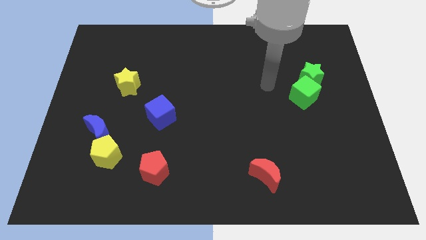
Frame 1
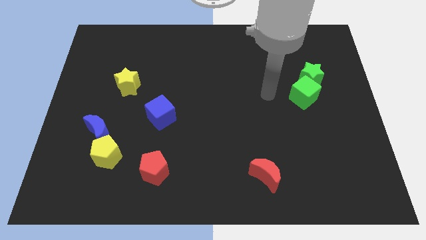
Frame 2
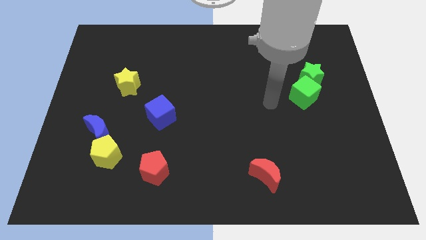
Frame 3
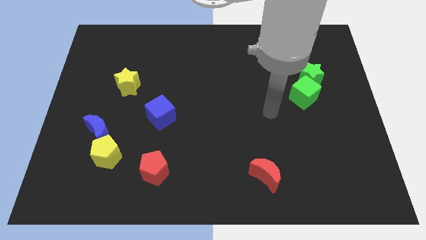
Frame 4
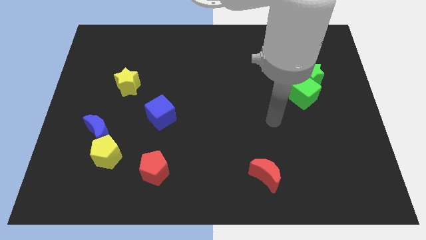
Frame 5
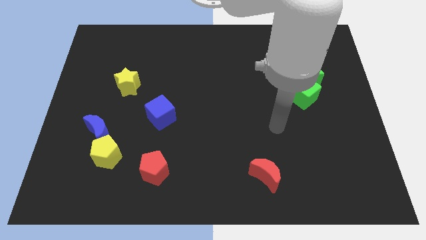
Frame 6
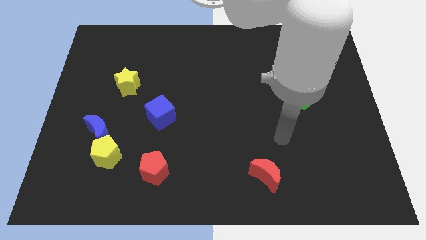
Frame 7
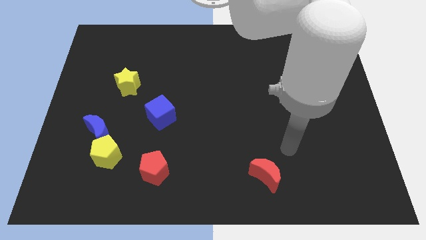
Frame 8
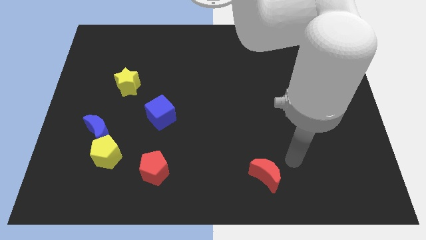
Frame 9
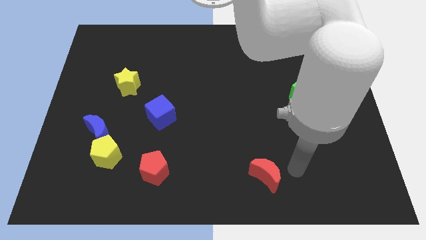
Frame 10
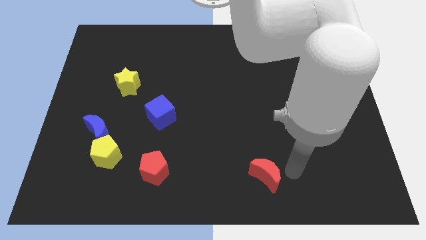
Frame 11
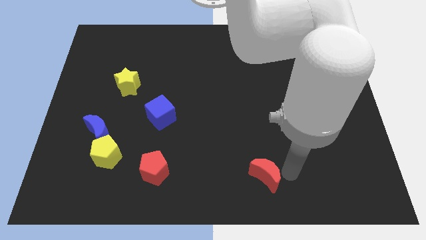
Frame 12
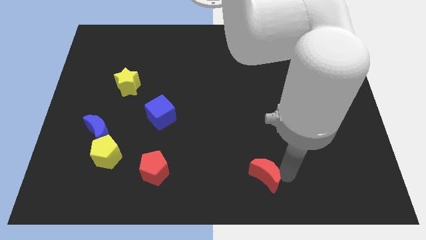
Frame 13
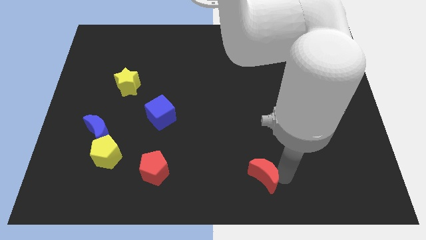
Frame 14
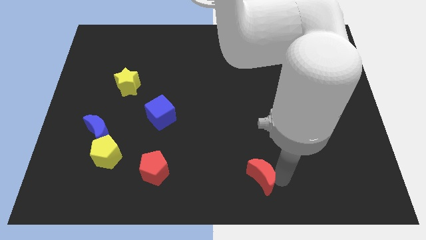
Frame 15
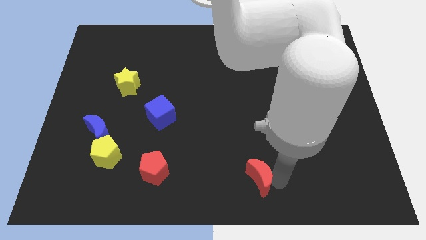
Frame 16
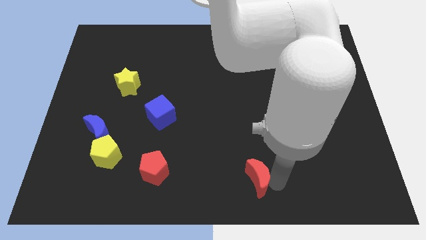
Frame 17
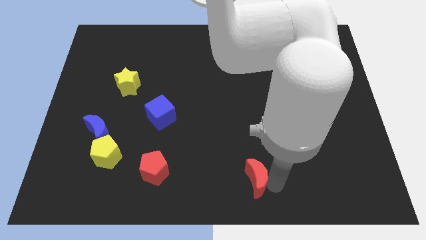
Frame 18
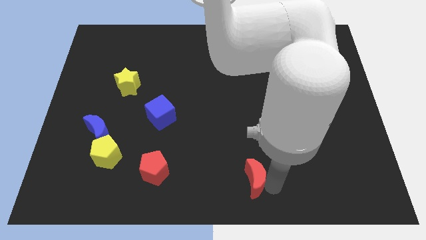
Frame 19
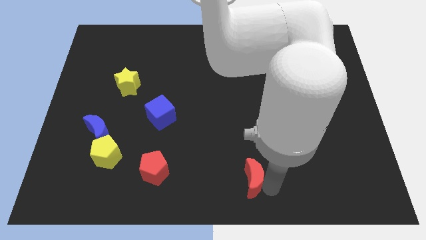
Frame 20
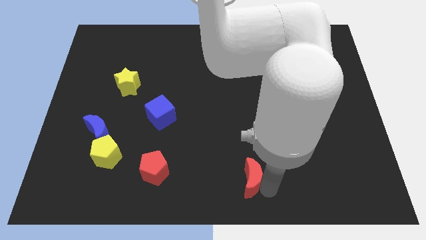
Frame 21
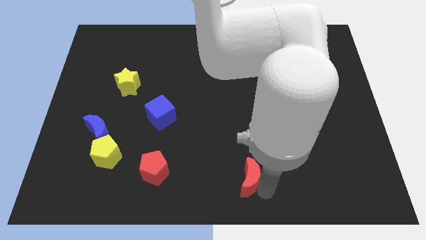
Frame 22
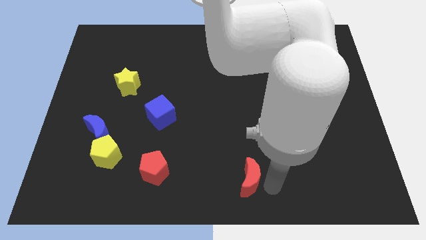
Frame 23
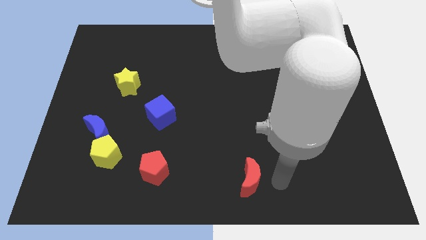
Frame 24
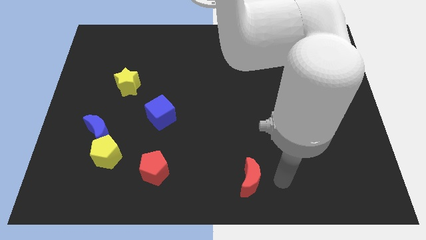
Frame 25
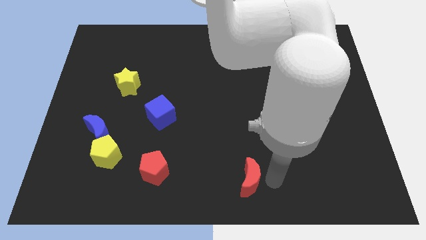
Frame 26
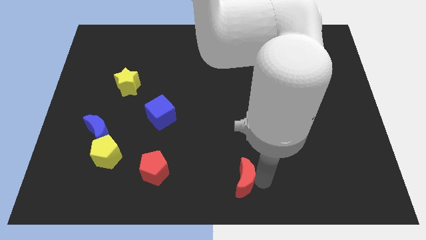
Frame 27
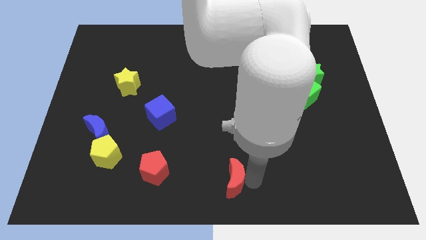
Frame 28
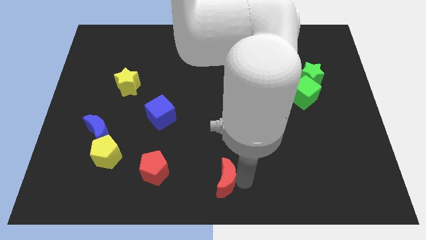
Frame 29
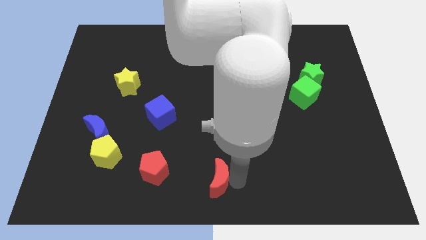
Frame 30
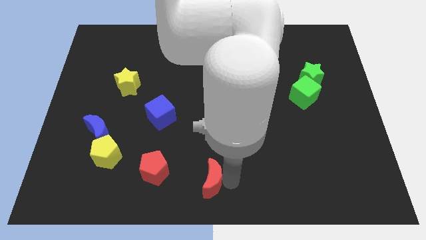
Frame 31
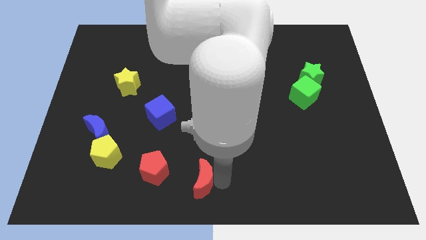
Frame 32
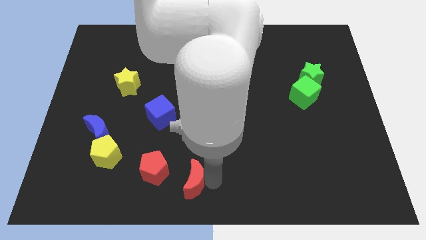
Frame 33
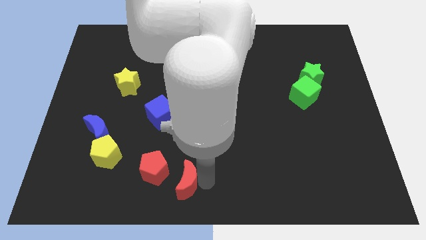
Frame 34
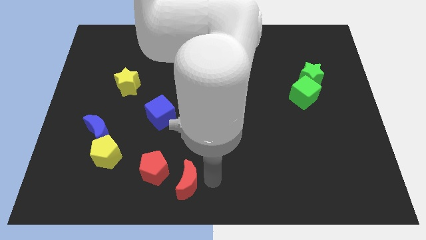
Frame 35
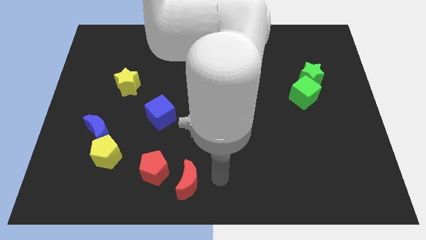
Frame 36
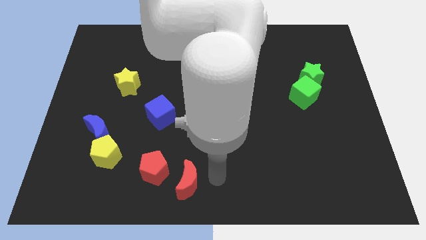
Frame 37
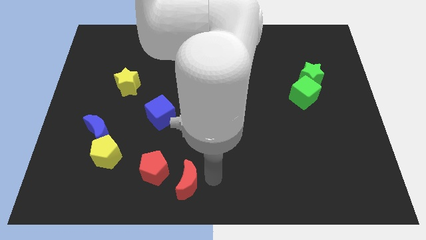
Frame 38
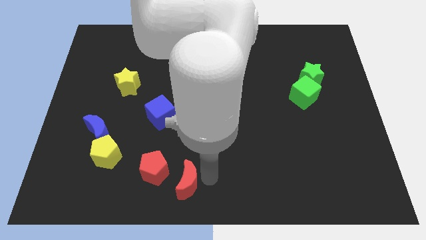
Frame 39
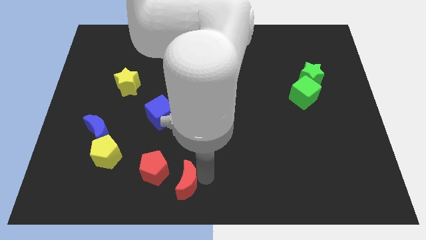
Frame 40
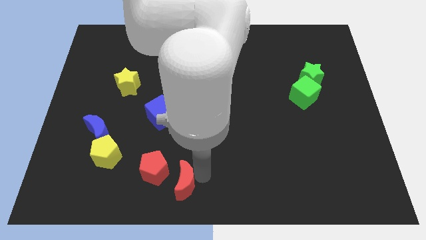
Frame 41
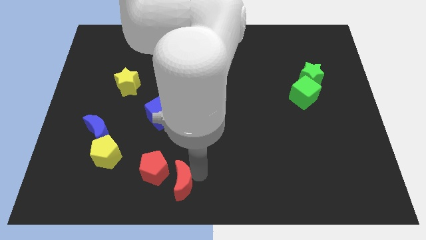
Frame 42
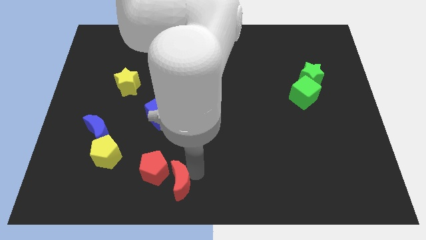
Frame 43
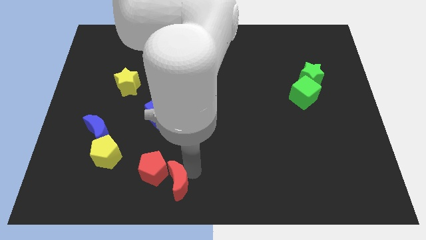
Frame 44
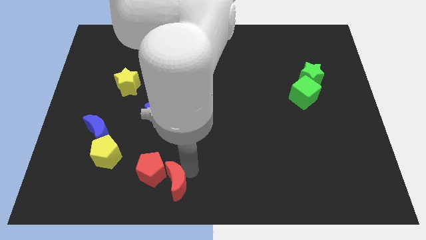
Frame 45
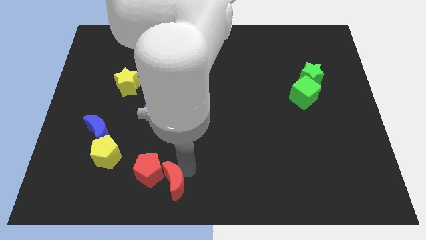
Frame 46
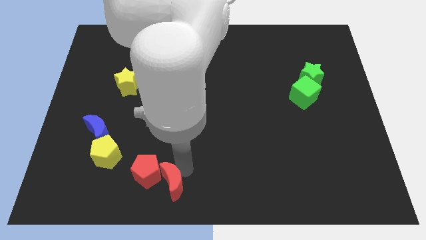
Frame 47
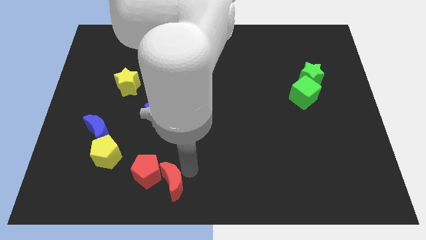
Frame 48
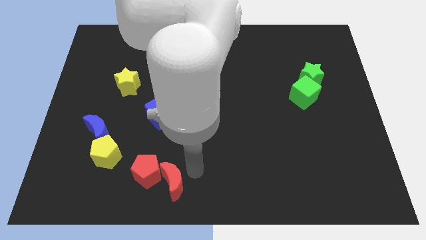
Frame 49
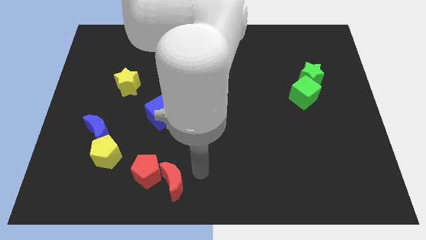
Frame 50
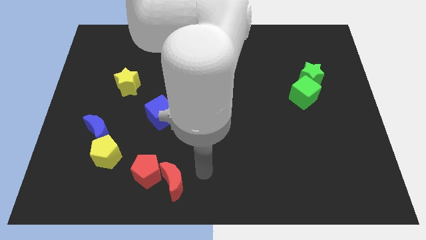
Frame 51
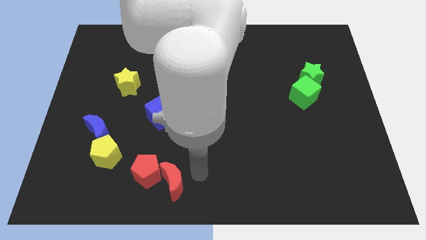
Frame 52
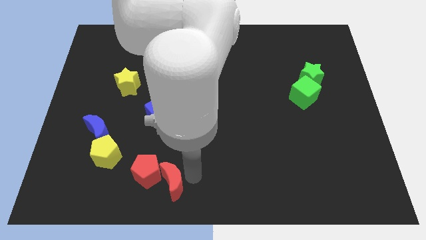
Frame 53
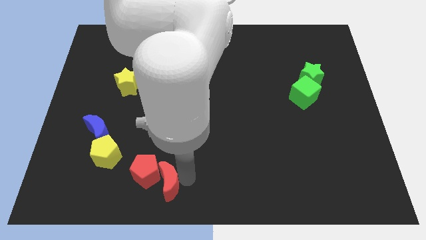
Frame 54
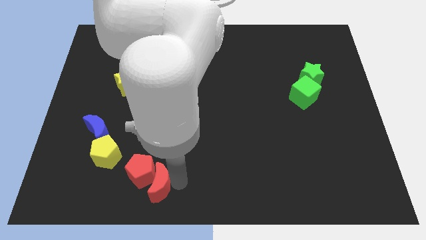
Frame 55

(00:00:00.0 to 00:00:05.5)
slide the red moon to the left

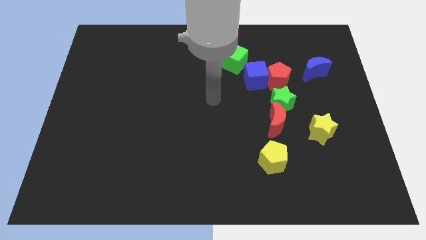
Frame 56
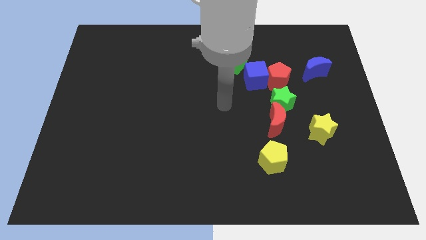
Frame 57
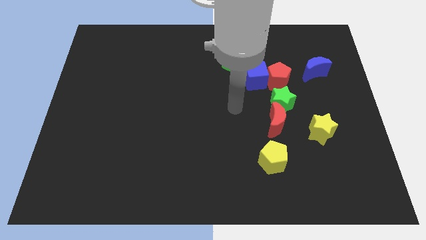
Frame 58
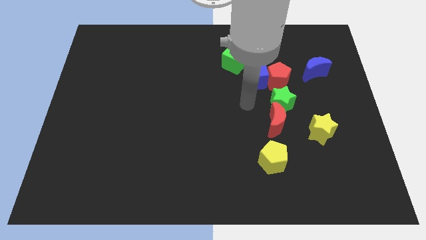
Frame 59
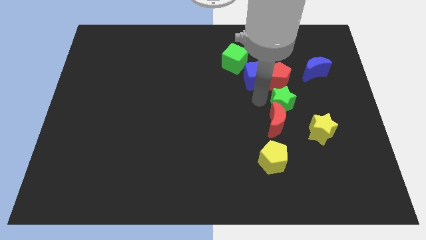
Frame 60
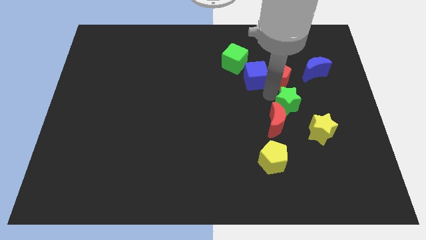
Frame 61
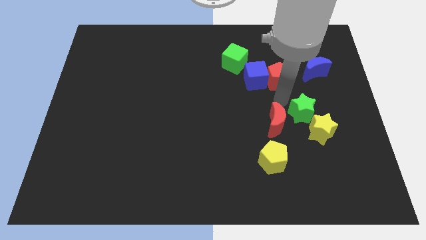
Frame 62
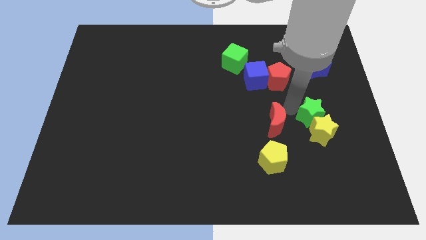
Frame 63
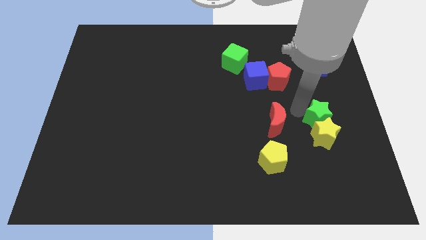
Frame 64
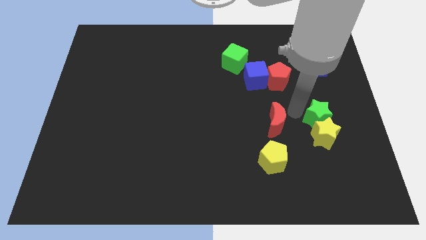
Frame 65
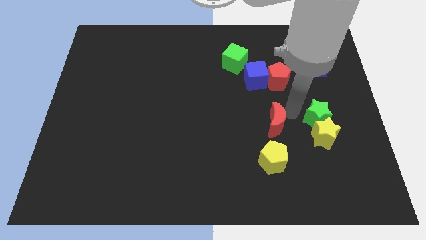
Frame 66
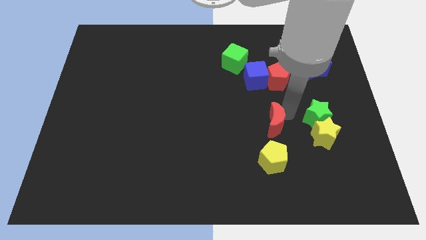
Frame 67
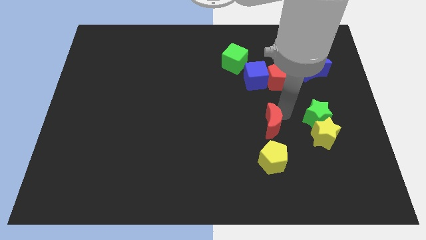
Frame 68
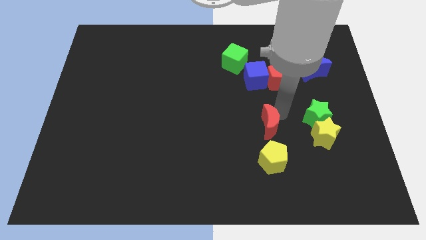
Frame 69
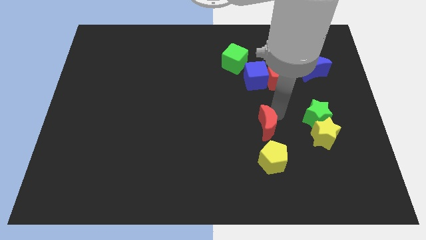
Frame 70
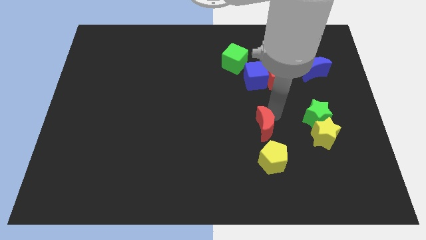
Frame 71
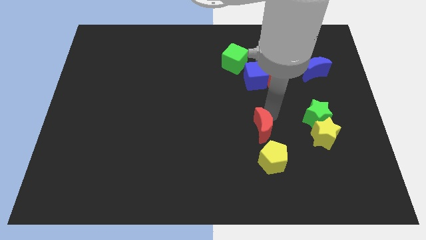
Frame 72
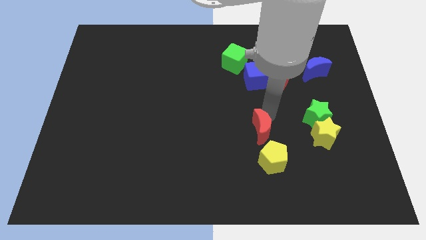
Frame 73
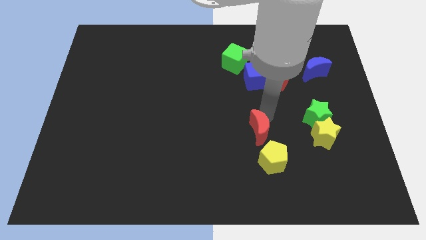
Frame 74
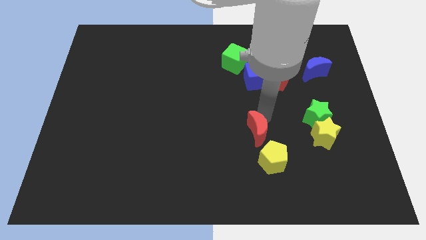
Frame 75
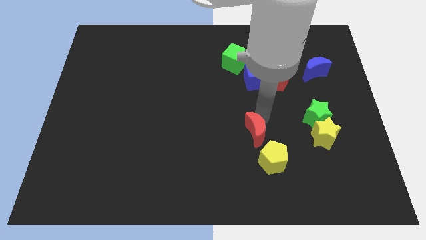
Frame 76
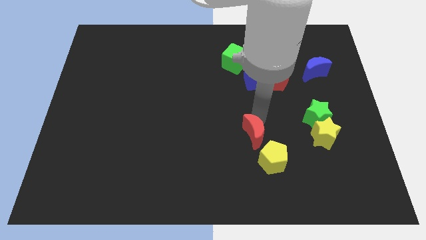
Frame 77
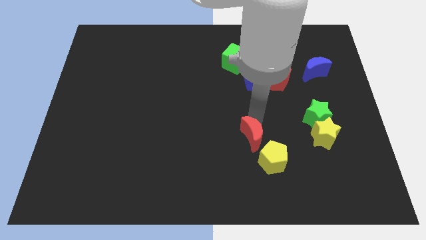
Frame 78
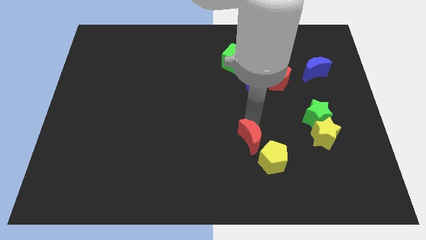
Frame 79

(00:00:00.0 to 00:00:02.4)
slide the red moon a bit down and left diagonally
